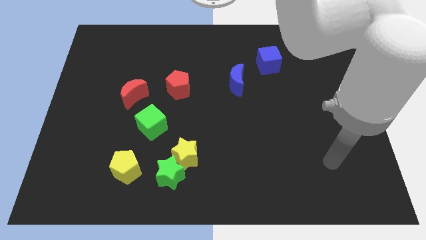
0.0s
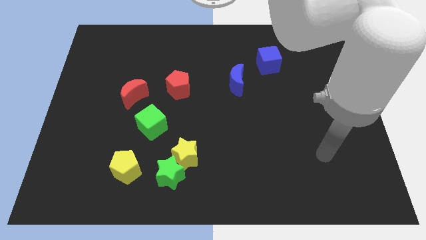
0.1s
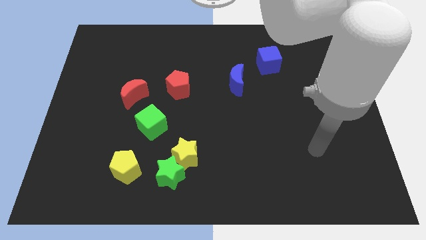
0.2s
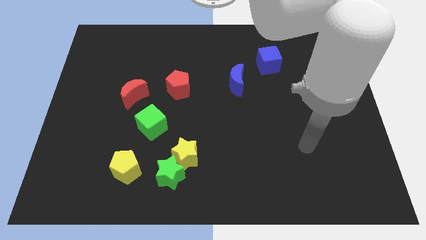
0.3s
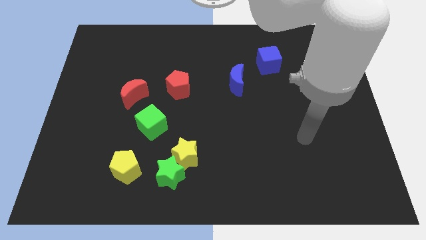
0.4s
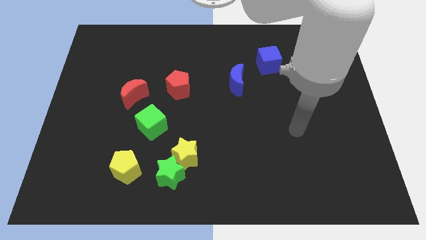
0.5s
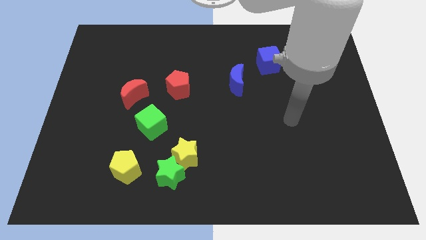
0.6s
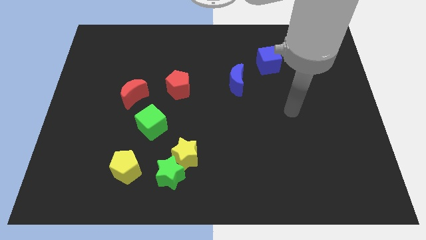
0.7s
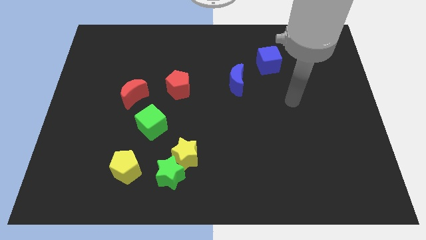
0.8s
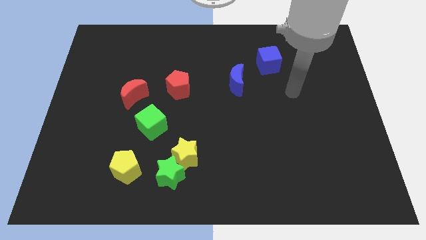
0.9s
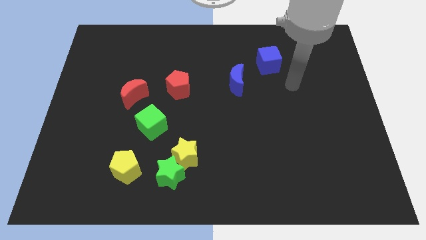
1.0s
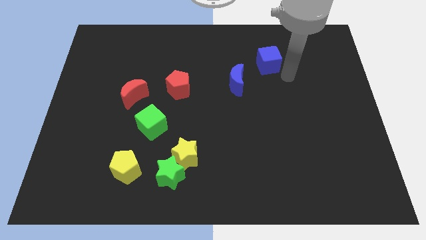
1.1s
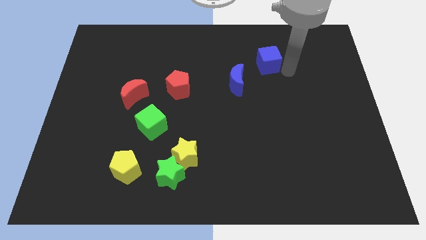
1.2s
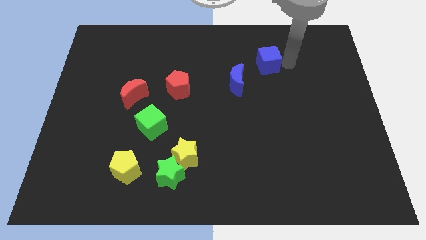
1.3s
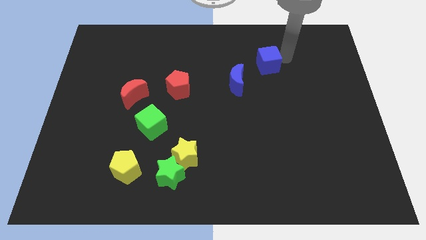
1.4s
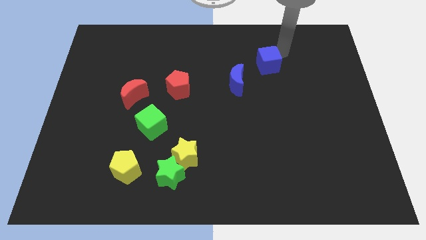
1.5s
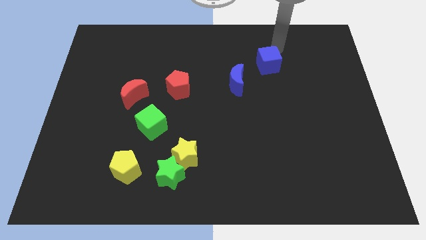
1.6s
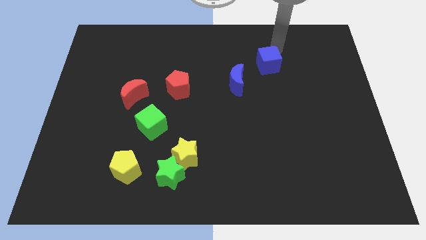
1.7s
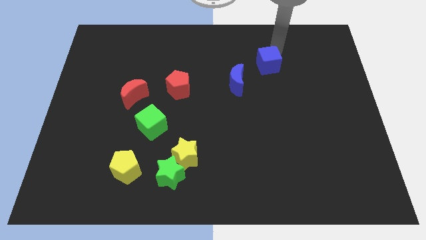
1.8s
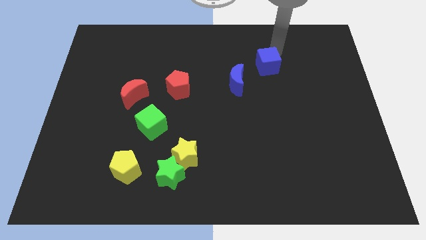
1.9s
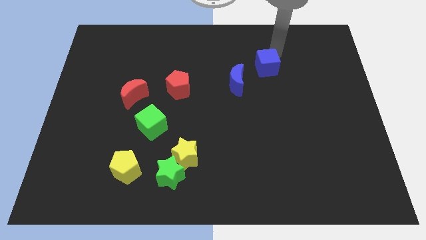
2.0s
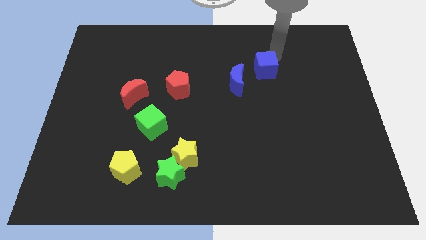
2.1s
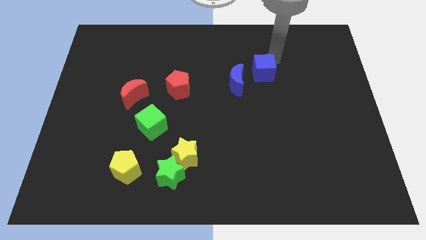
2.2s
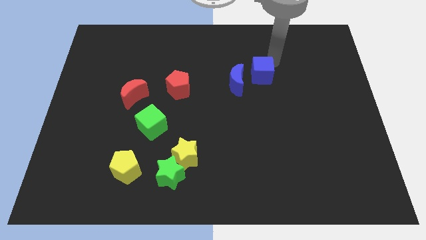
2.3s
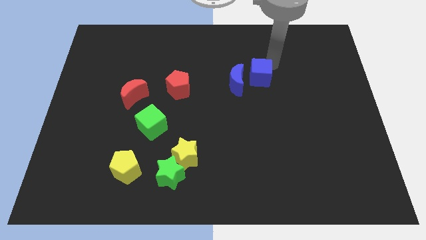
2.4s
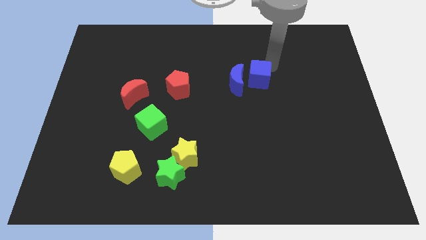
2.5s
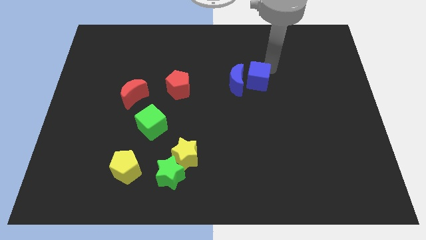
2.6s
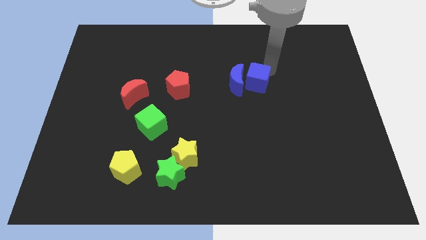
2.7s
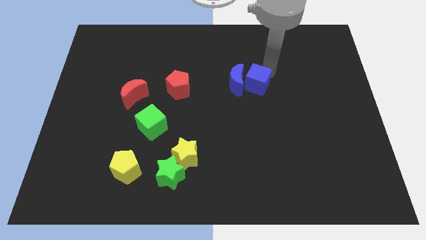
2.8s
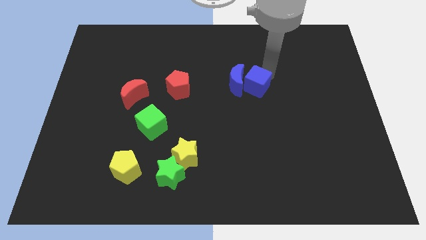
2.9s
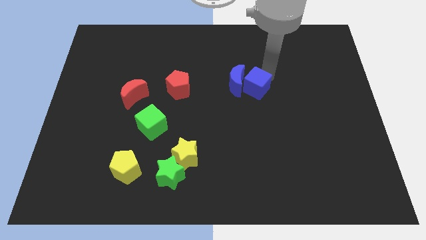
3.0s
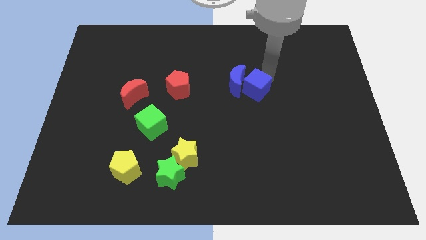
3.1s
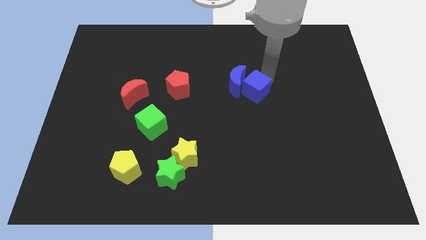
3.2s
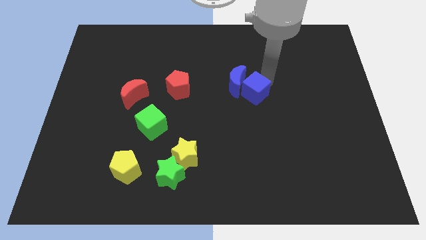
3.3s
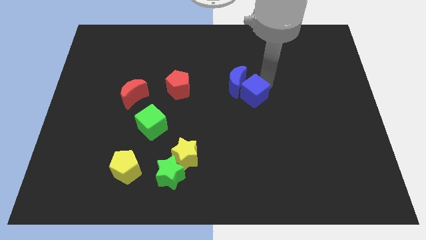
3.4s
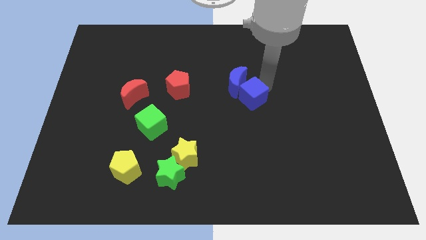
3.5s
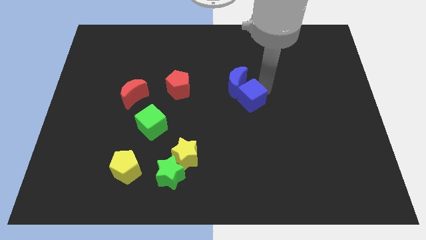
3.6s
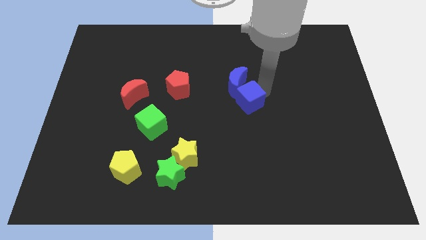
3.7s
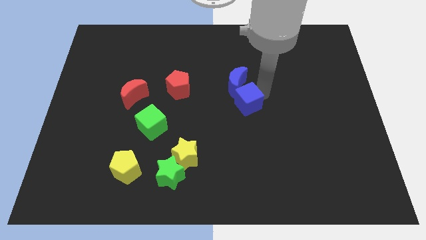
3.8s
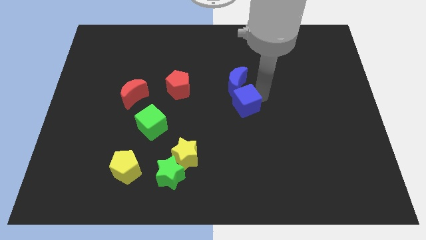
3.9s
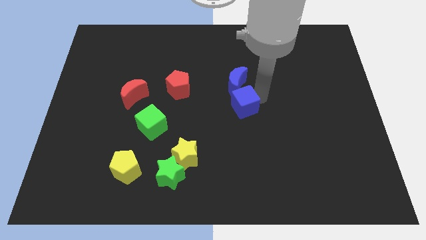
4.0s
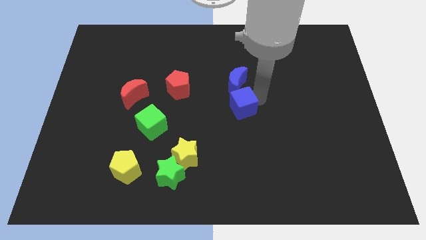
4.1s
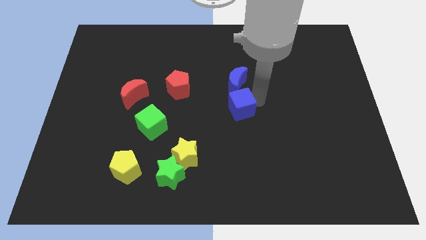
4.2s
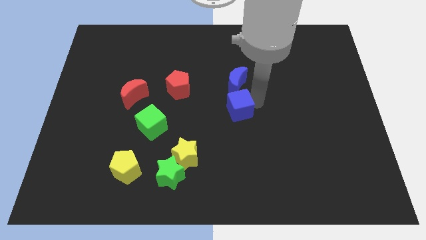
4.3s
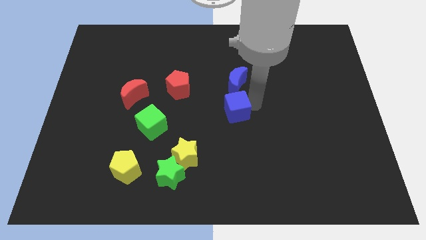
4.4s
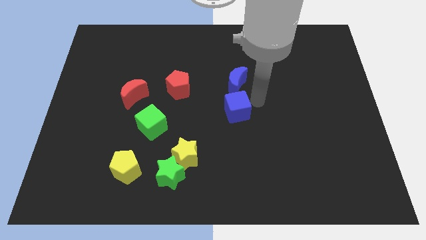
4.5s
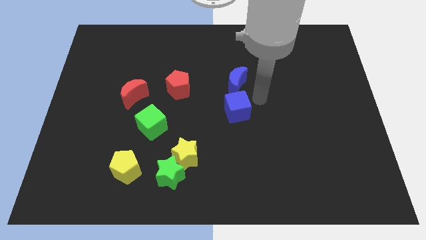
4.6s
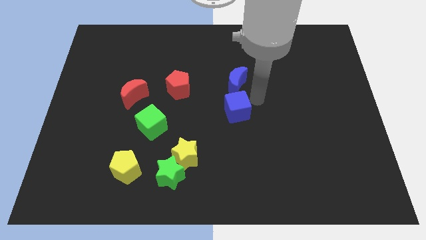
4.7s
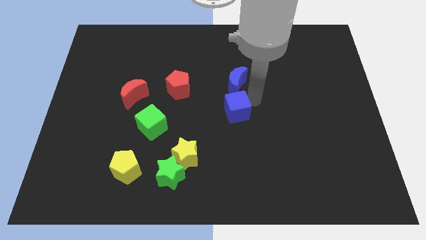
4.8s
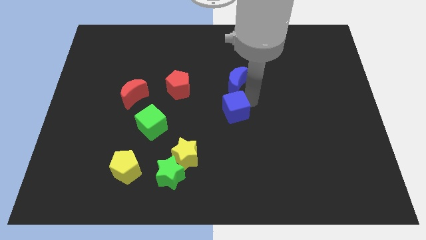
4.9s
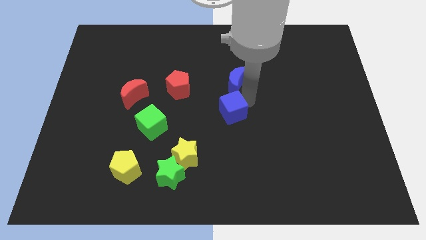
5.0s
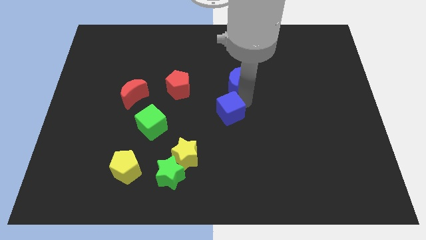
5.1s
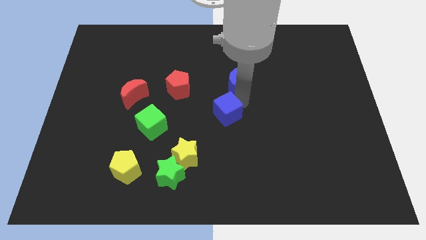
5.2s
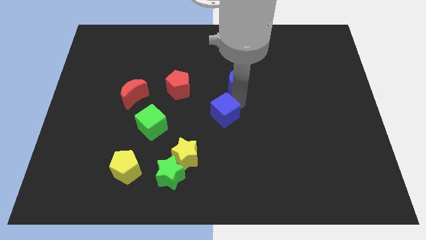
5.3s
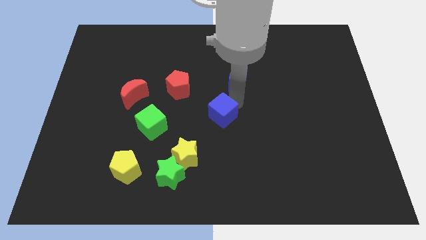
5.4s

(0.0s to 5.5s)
slide the blue cube downwards and then to the left

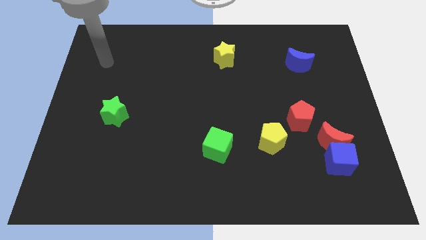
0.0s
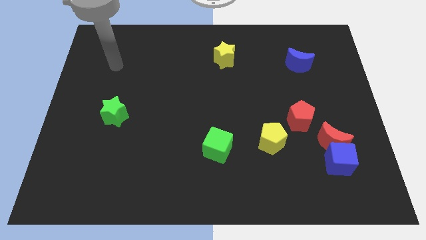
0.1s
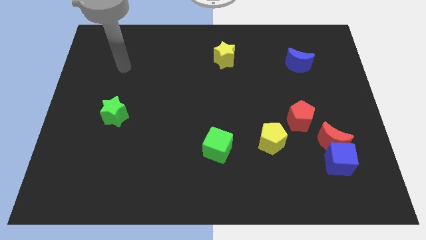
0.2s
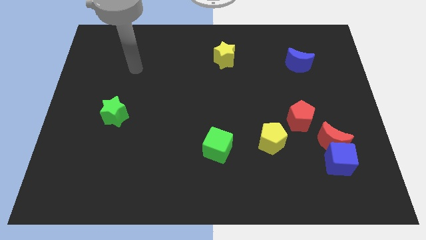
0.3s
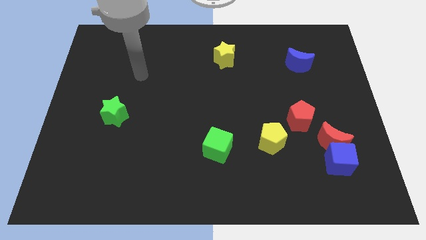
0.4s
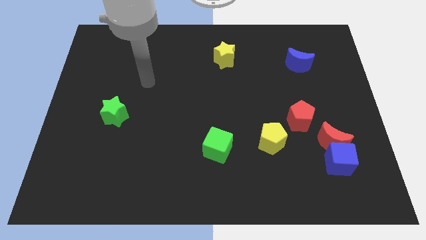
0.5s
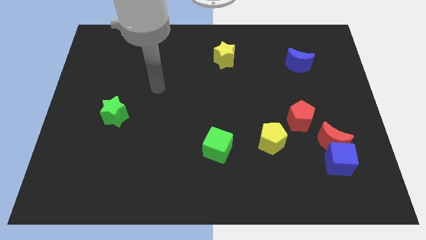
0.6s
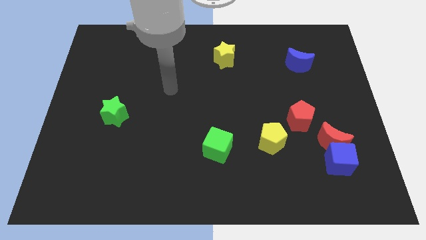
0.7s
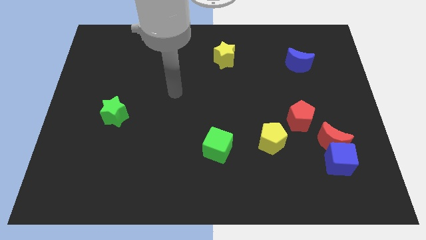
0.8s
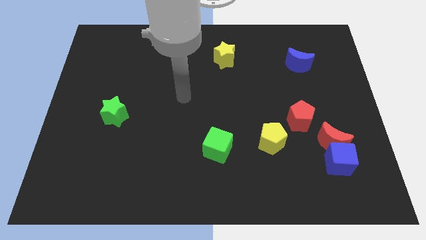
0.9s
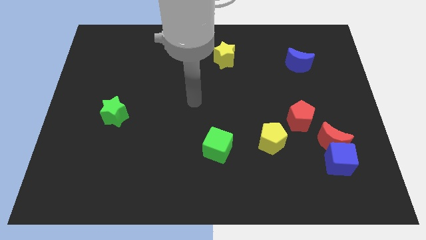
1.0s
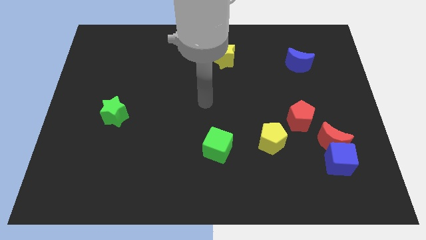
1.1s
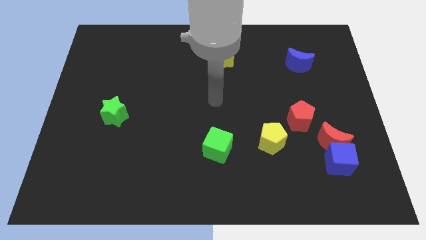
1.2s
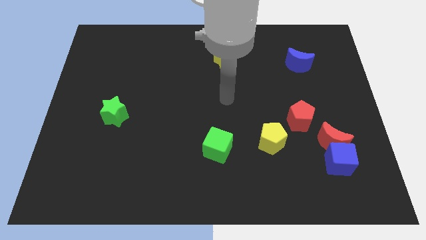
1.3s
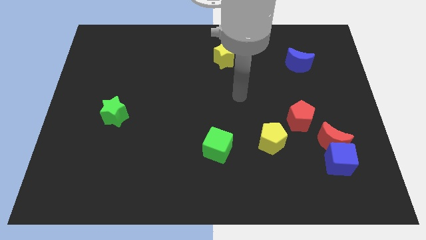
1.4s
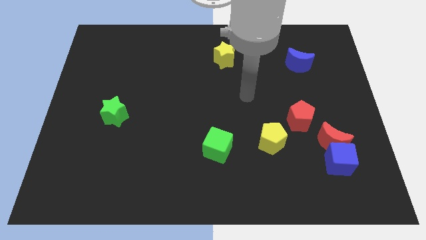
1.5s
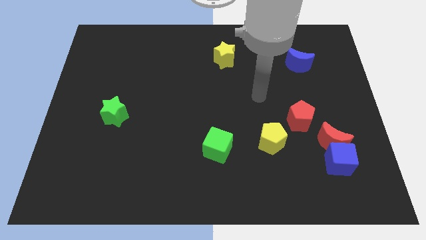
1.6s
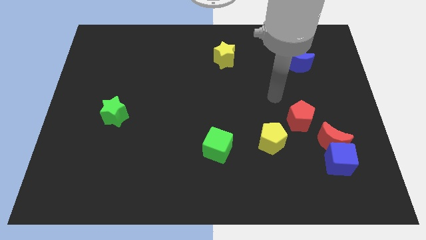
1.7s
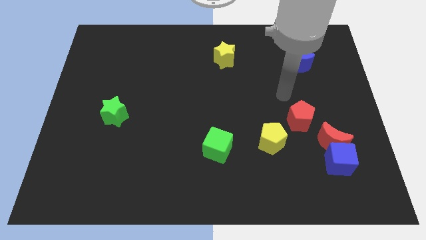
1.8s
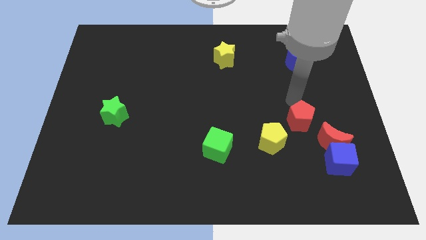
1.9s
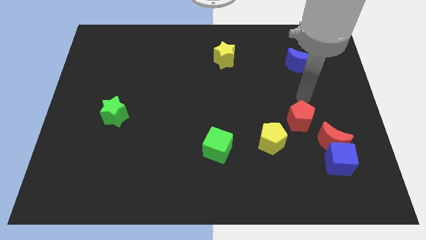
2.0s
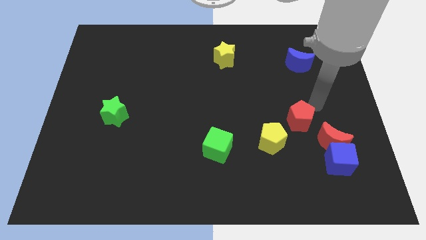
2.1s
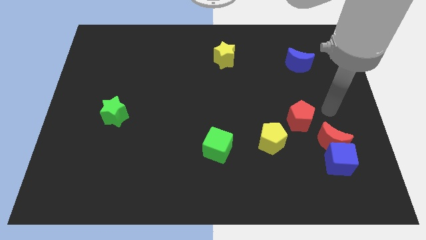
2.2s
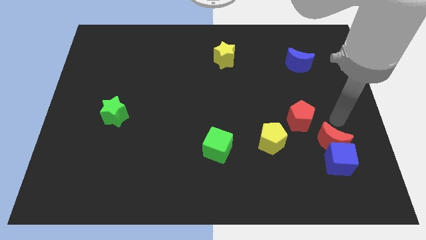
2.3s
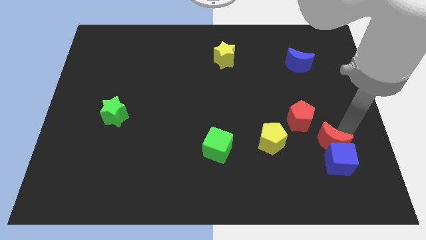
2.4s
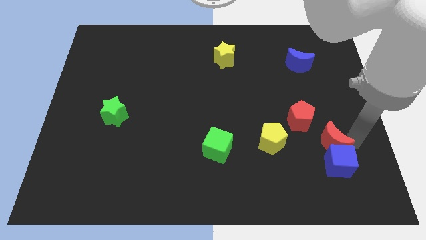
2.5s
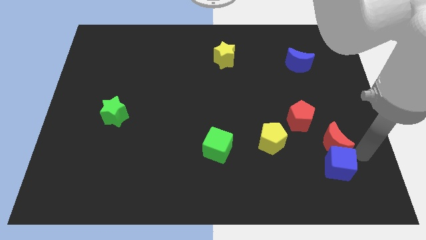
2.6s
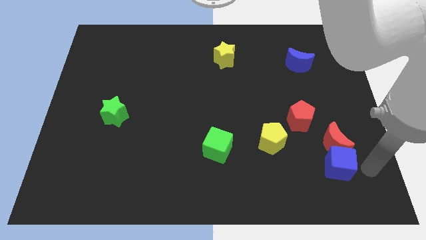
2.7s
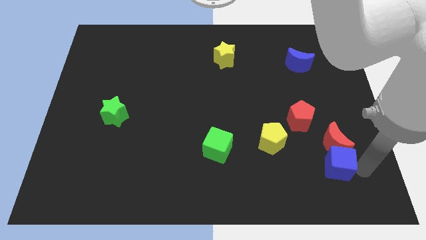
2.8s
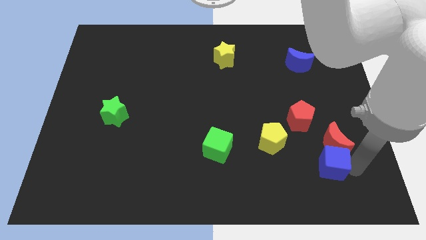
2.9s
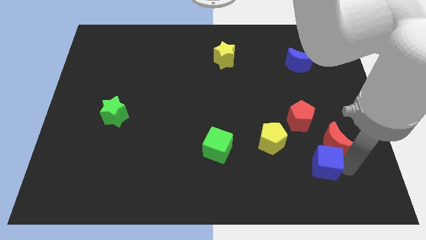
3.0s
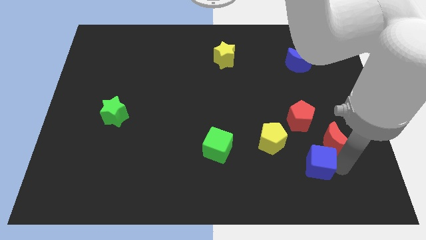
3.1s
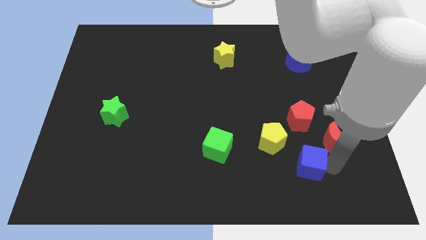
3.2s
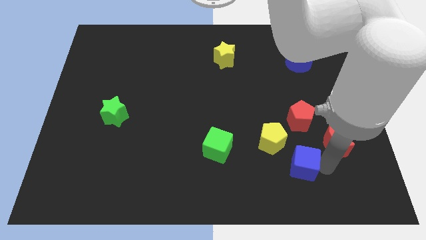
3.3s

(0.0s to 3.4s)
slide the blue cube left slightly
